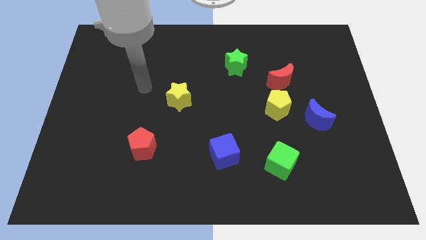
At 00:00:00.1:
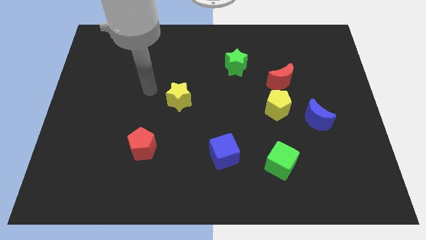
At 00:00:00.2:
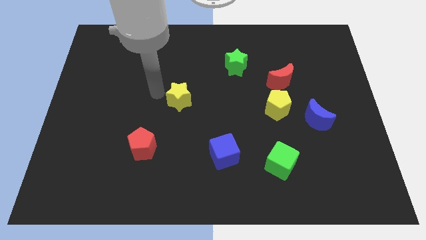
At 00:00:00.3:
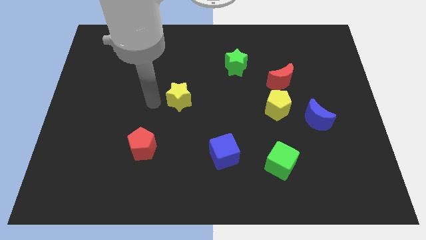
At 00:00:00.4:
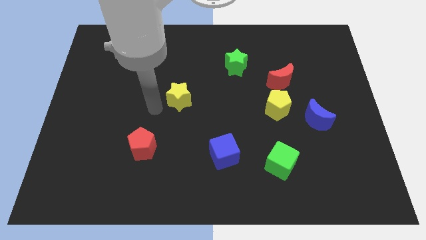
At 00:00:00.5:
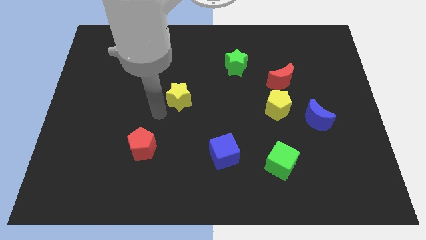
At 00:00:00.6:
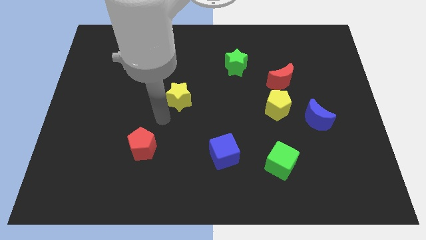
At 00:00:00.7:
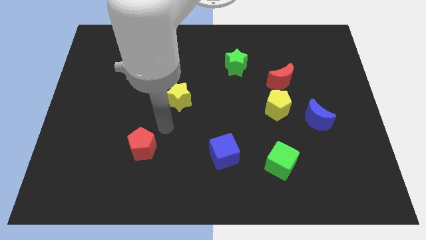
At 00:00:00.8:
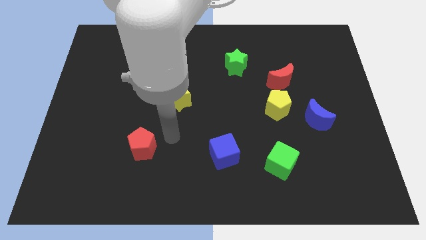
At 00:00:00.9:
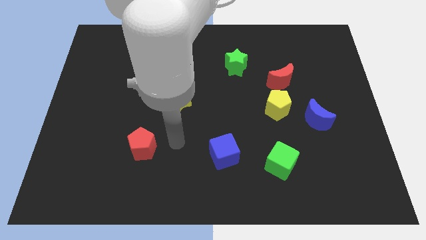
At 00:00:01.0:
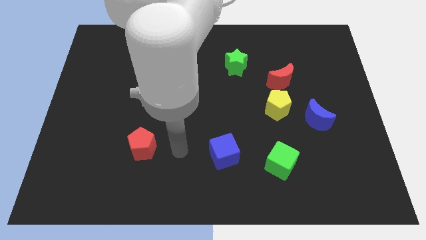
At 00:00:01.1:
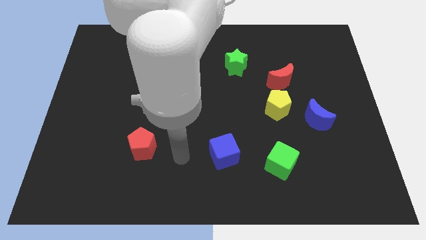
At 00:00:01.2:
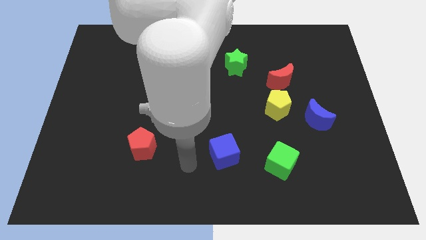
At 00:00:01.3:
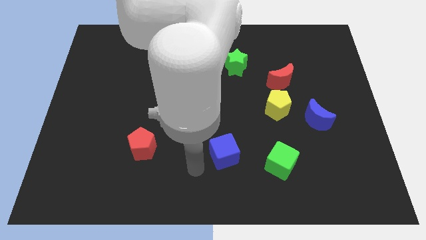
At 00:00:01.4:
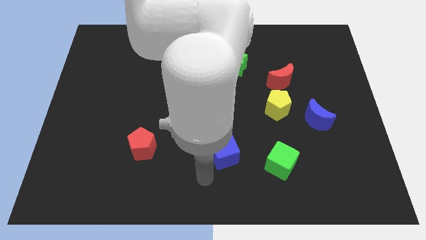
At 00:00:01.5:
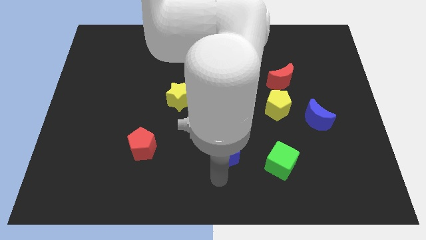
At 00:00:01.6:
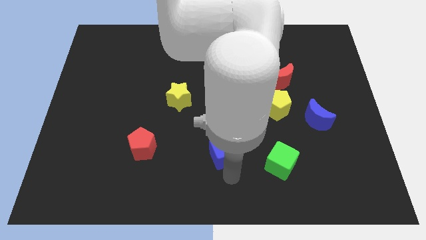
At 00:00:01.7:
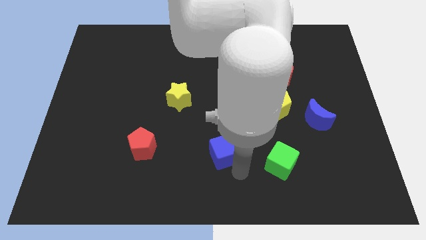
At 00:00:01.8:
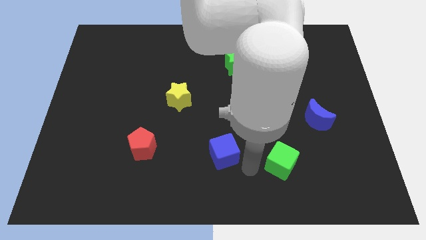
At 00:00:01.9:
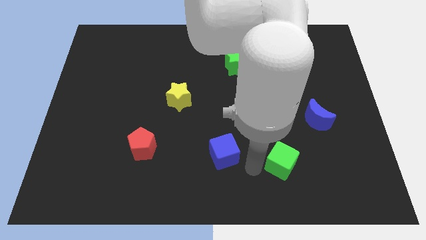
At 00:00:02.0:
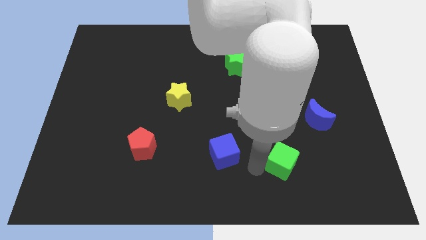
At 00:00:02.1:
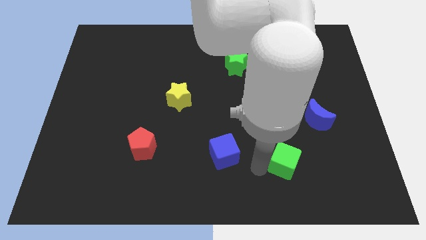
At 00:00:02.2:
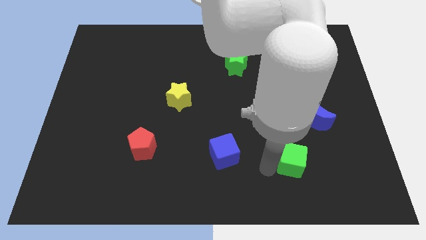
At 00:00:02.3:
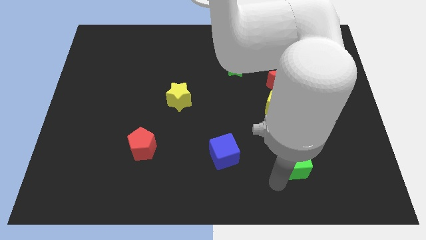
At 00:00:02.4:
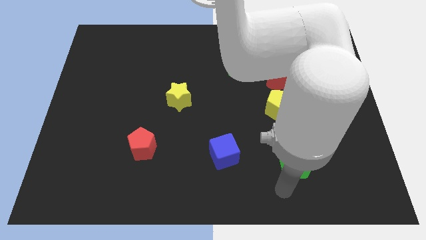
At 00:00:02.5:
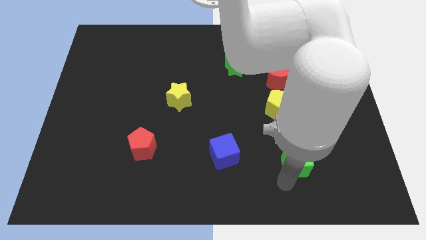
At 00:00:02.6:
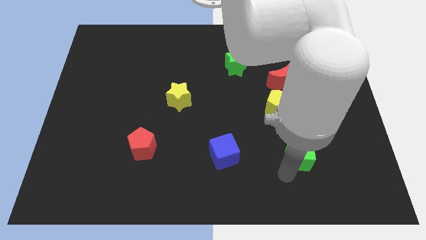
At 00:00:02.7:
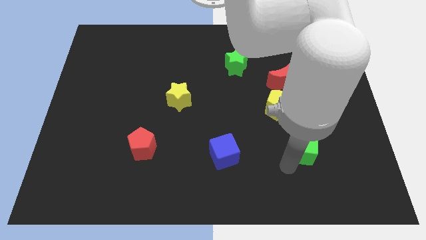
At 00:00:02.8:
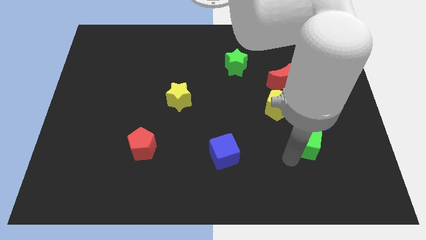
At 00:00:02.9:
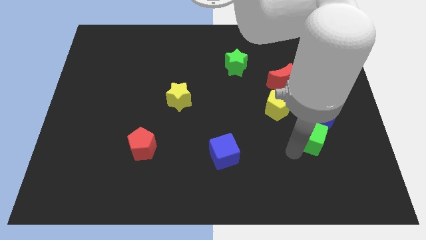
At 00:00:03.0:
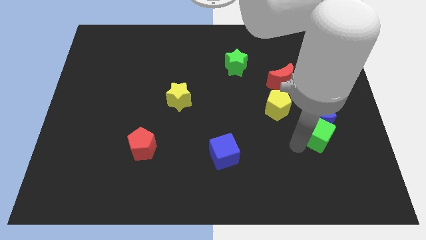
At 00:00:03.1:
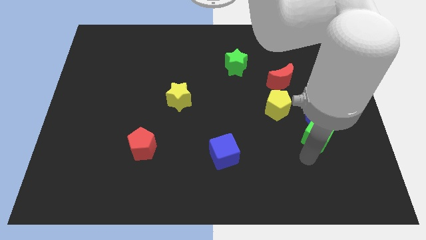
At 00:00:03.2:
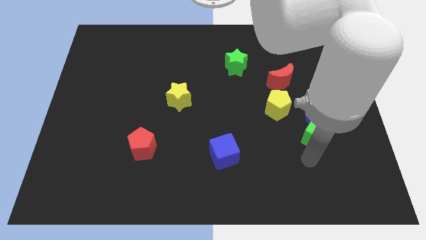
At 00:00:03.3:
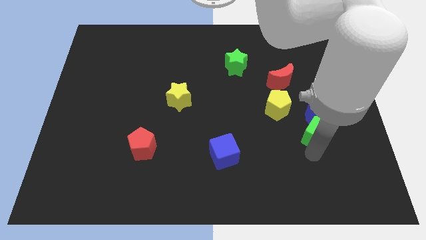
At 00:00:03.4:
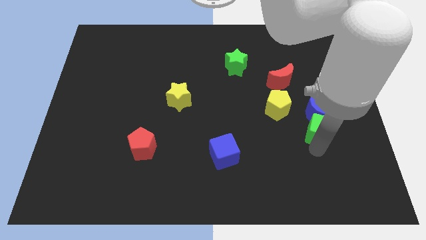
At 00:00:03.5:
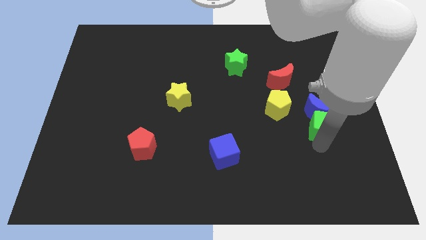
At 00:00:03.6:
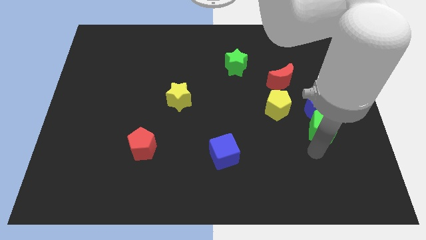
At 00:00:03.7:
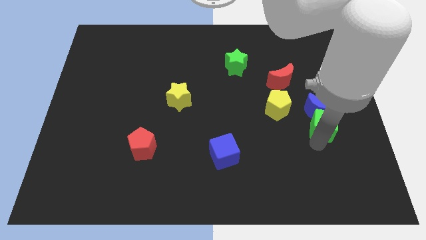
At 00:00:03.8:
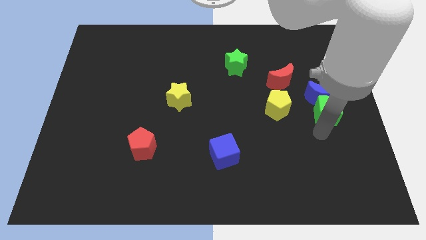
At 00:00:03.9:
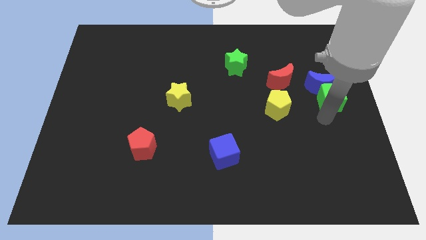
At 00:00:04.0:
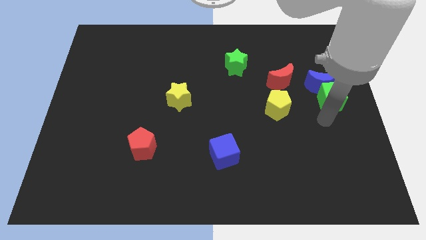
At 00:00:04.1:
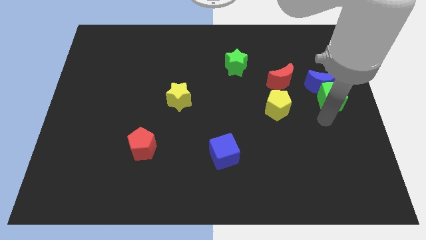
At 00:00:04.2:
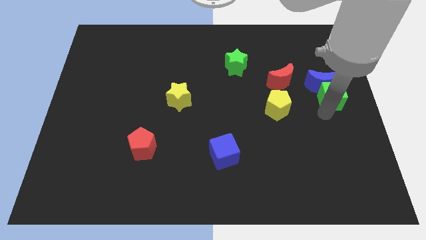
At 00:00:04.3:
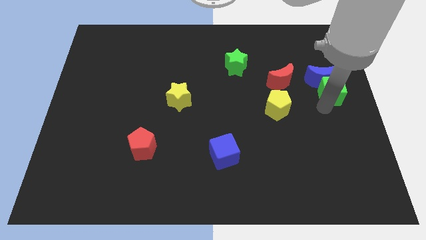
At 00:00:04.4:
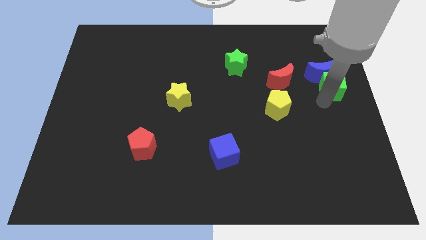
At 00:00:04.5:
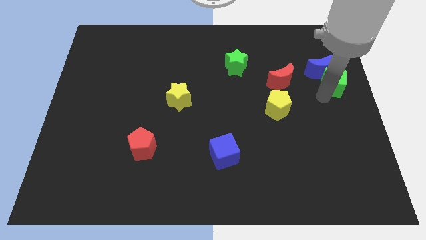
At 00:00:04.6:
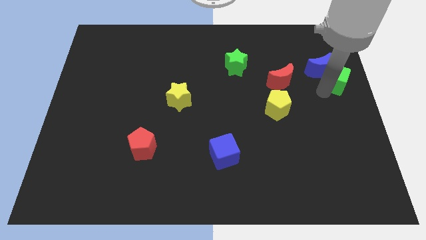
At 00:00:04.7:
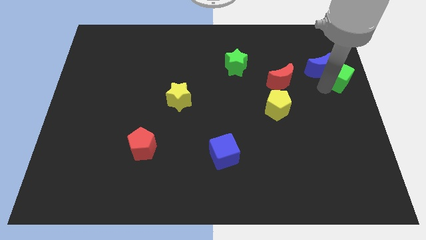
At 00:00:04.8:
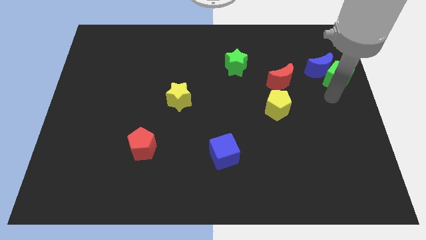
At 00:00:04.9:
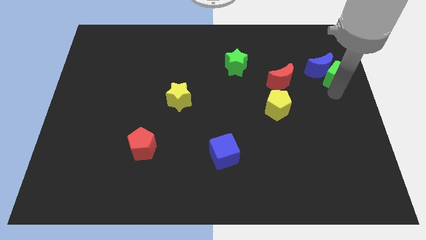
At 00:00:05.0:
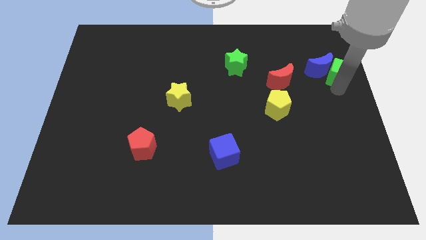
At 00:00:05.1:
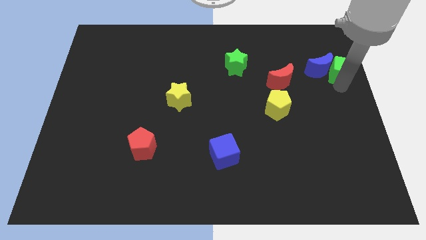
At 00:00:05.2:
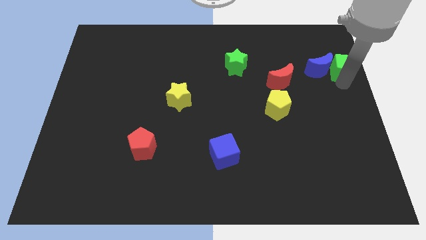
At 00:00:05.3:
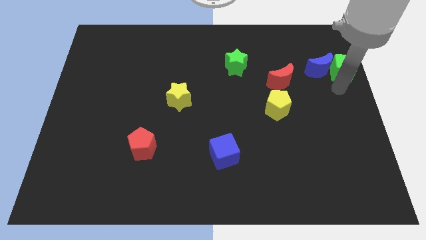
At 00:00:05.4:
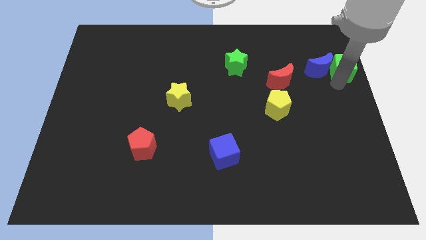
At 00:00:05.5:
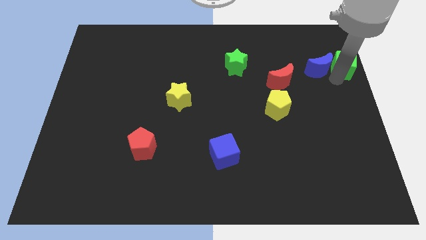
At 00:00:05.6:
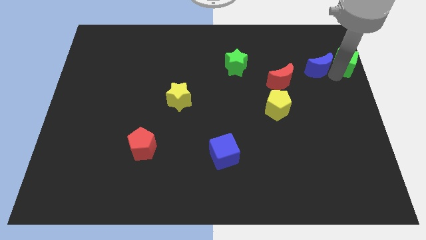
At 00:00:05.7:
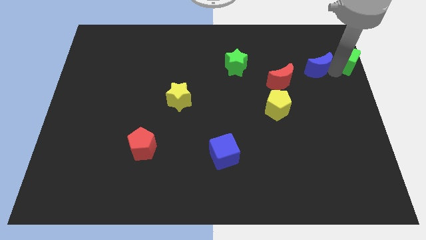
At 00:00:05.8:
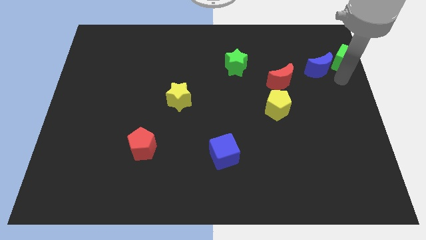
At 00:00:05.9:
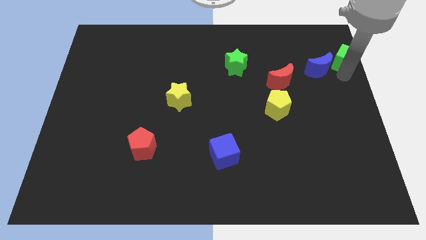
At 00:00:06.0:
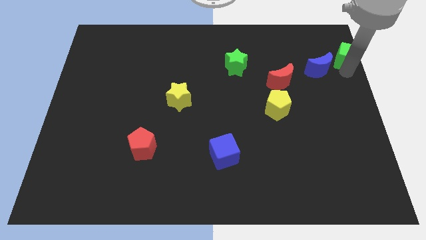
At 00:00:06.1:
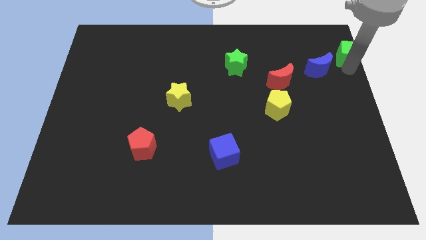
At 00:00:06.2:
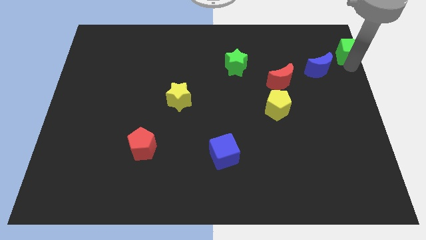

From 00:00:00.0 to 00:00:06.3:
push the green cube to the top right
